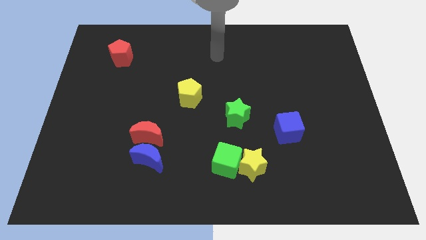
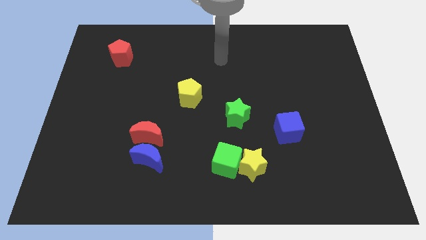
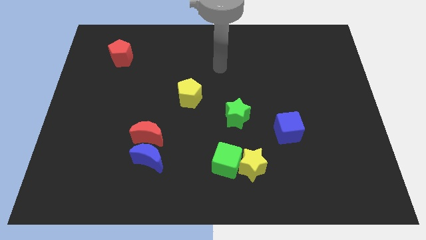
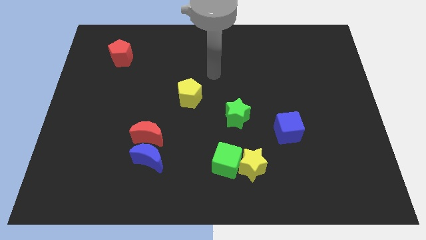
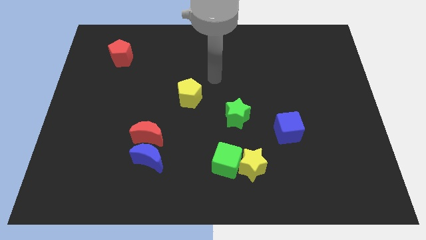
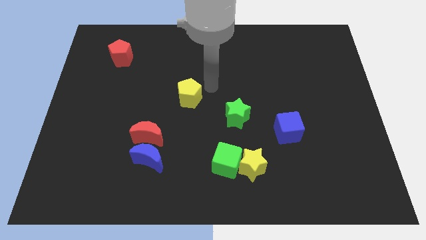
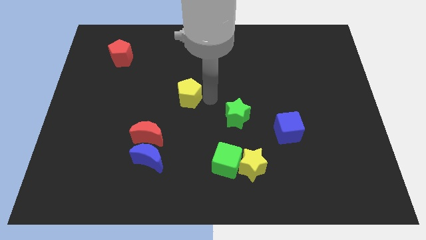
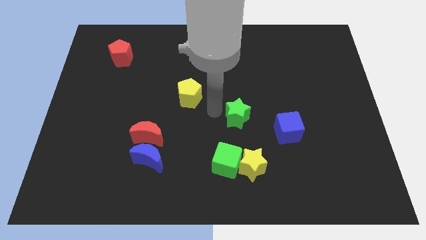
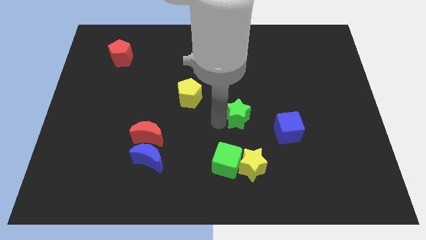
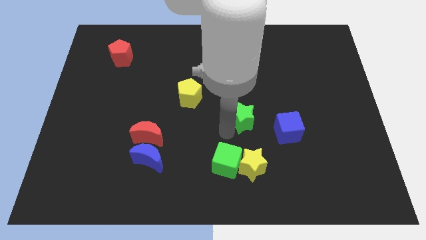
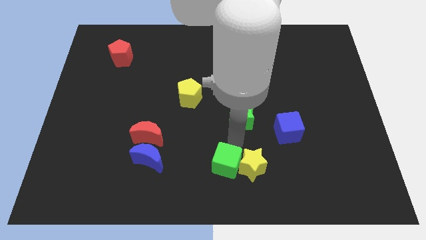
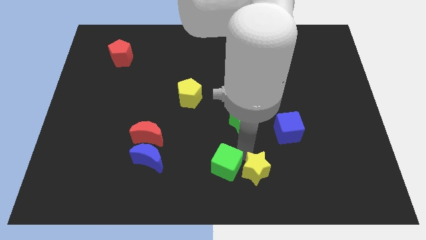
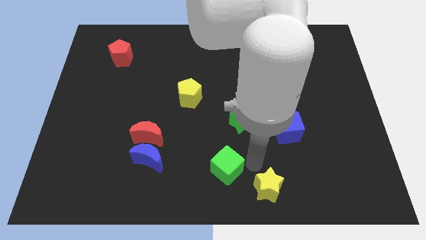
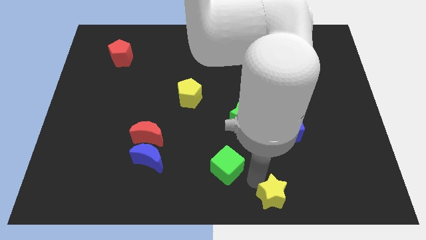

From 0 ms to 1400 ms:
move the green cube away from the yellow star

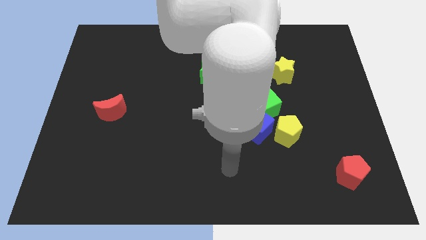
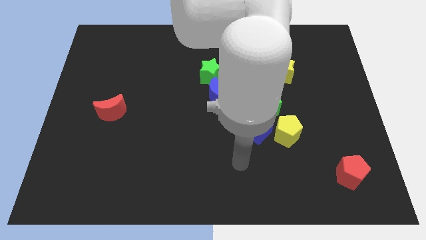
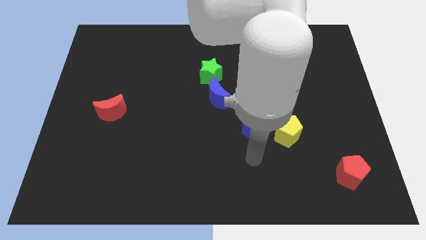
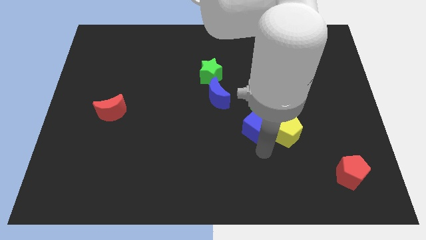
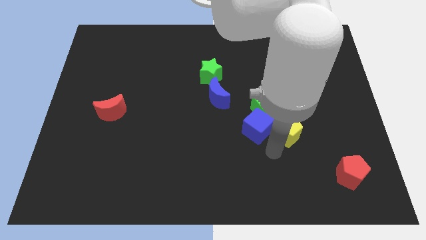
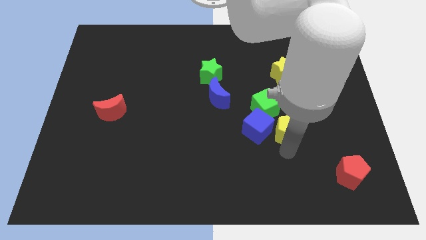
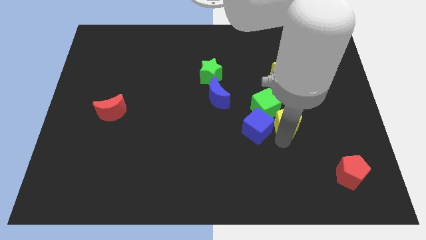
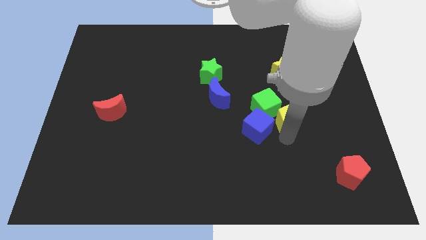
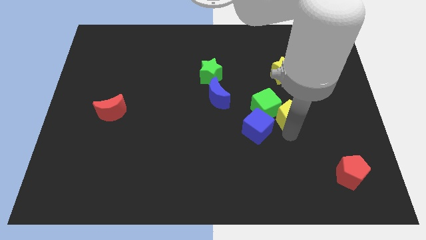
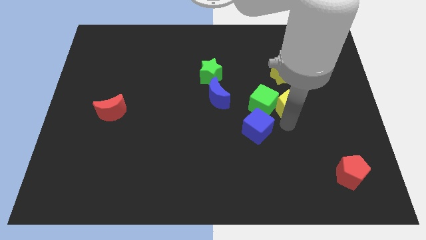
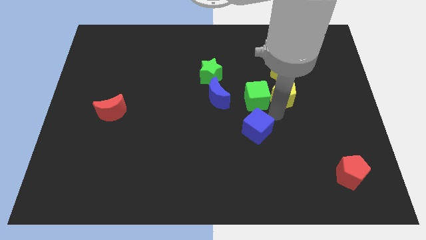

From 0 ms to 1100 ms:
pull the blue cube apart from the green cube and yellow pentagon

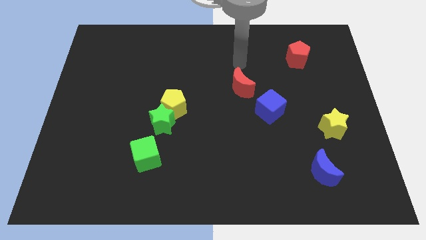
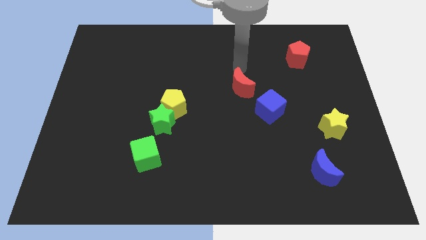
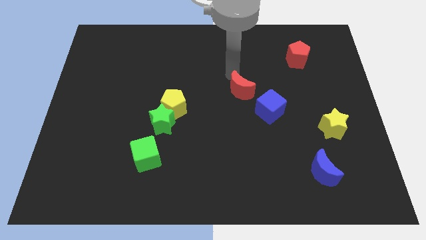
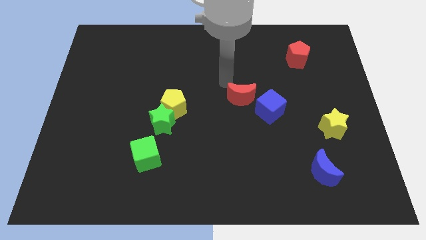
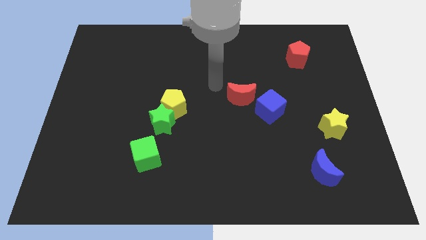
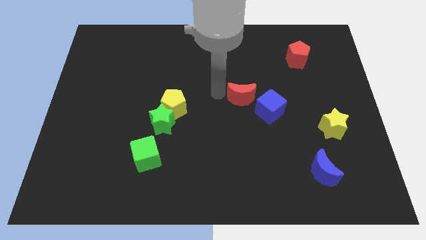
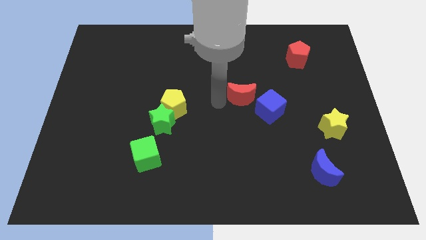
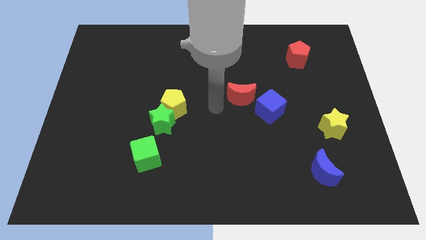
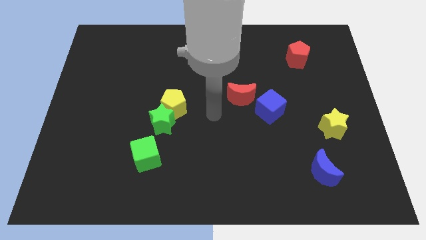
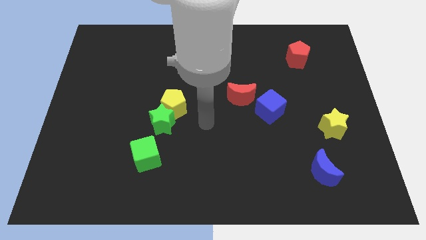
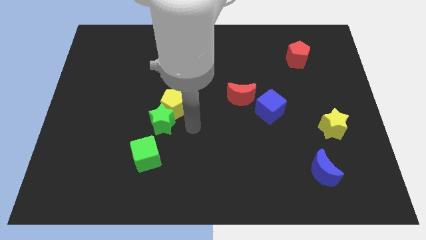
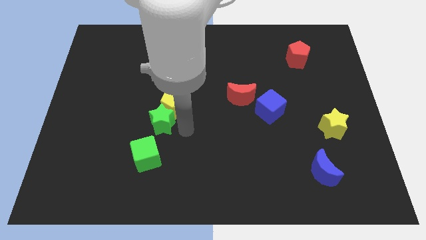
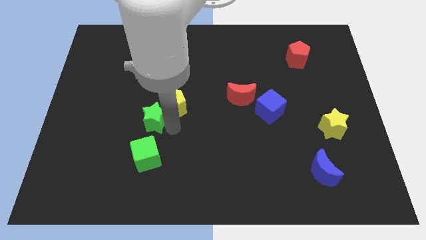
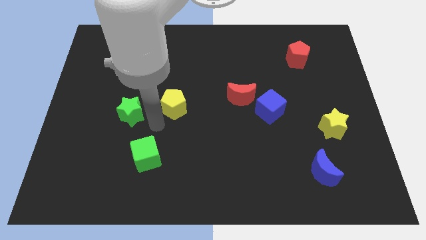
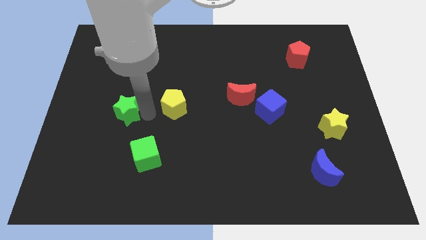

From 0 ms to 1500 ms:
pull the yellow pentagon apart from the green star

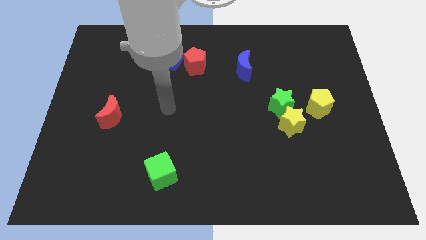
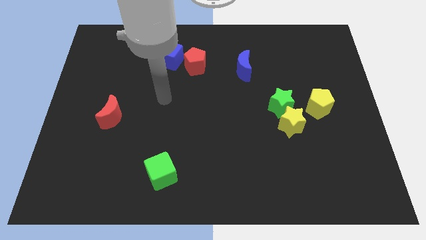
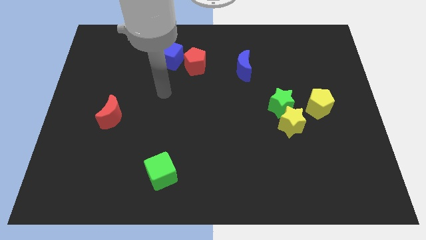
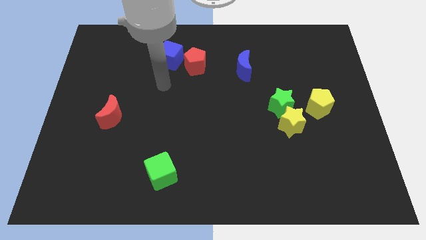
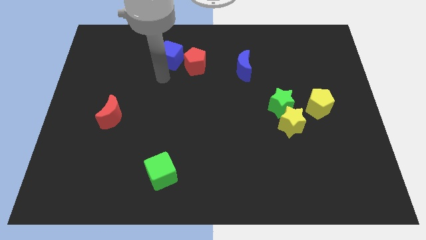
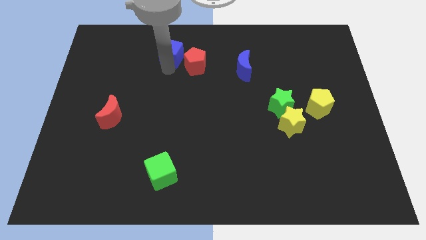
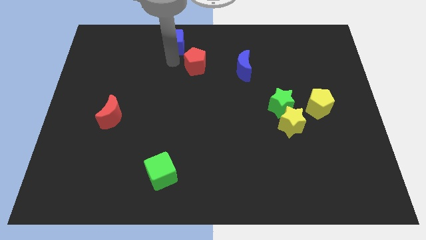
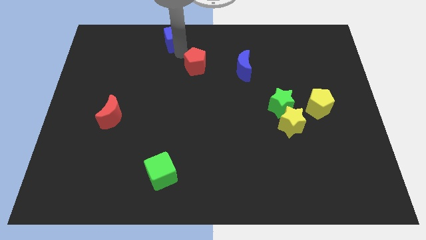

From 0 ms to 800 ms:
move the red pentagon away from the blue cube

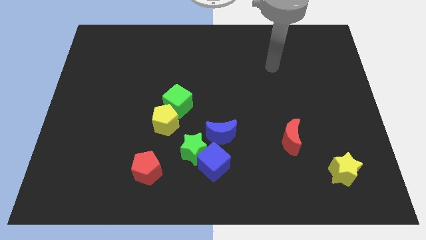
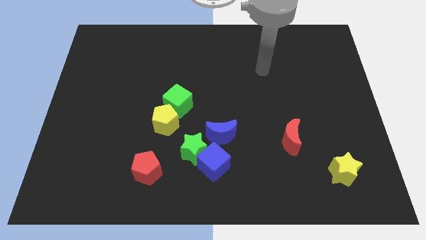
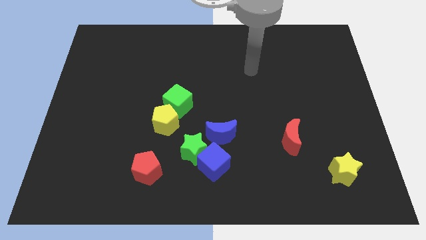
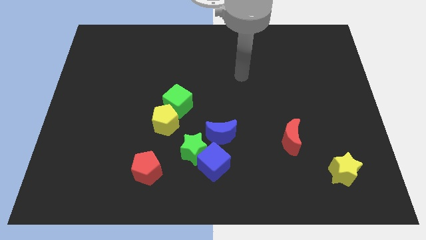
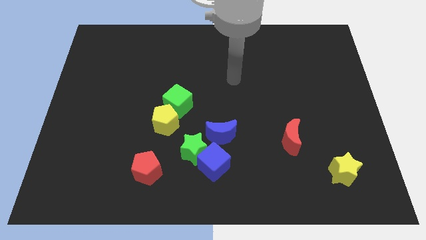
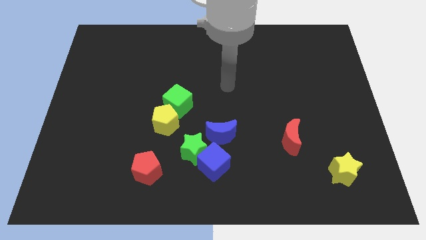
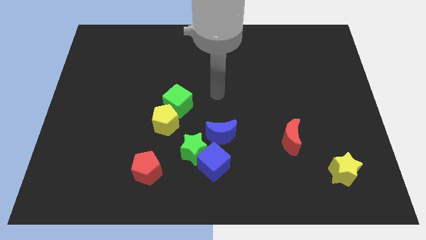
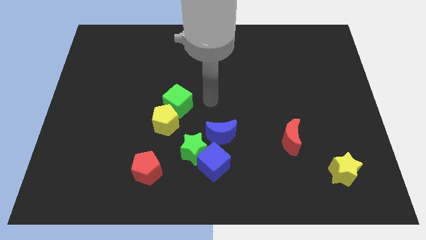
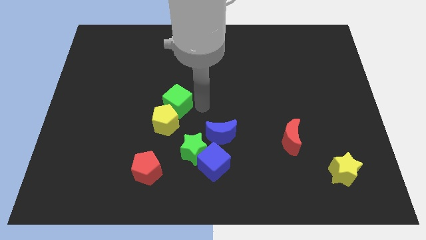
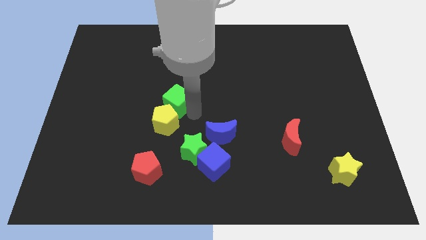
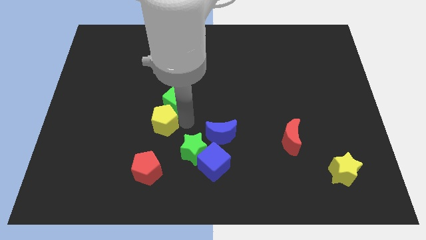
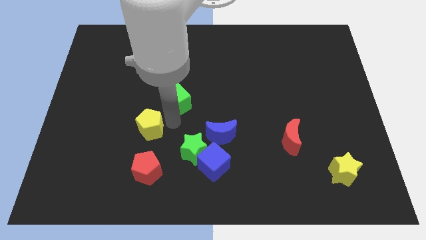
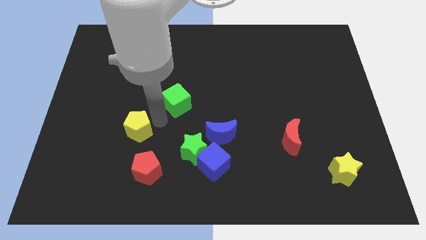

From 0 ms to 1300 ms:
separate the green cube from the yellow pentagon

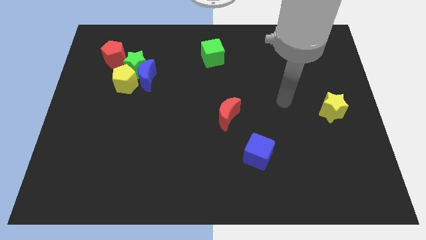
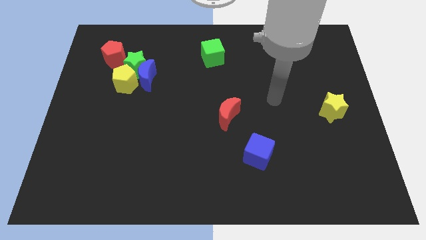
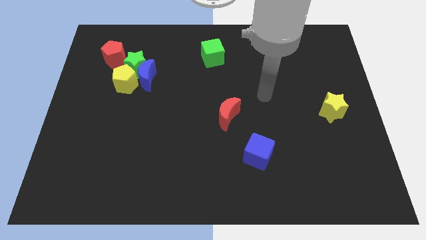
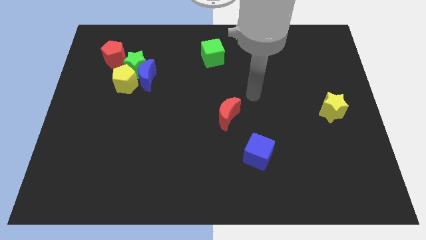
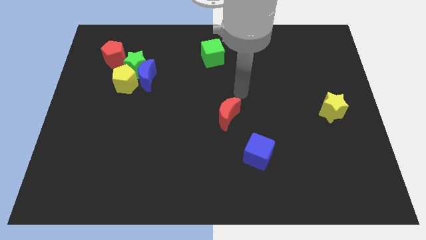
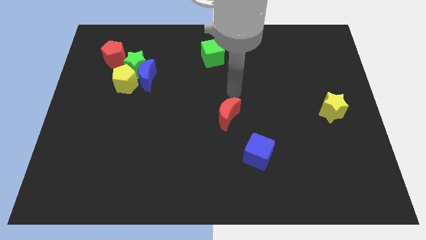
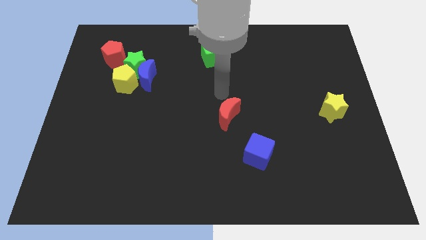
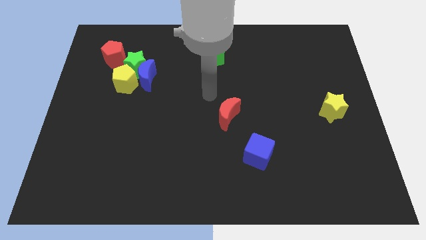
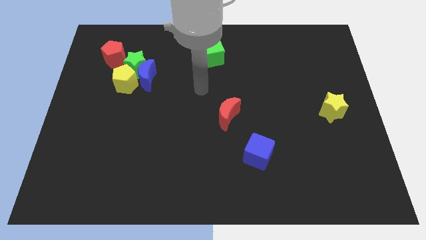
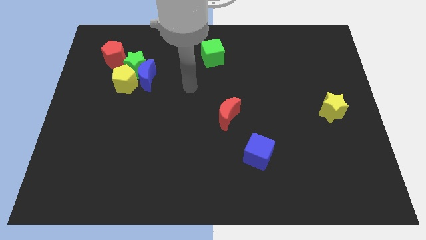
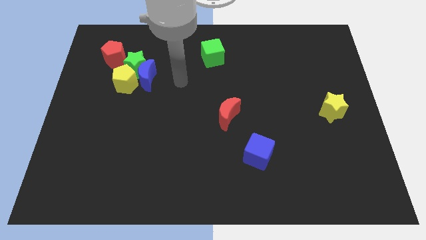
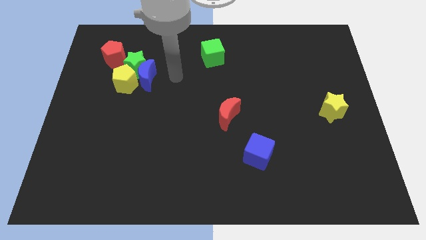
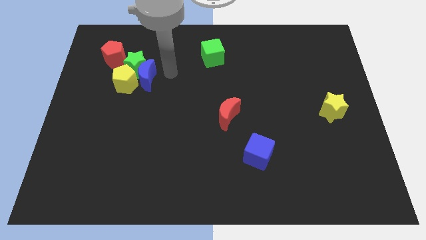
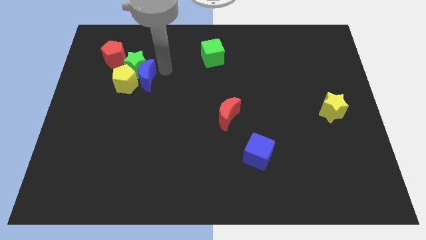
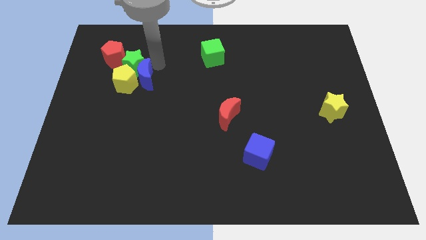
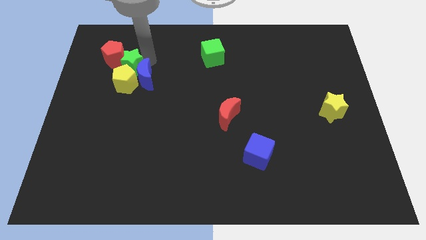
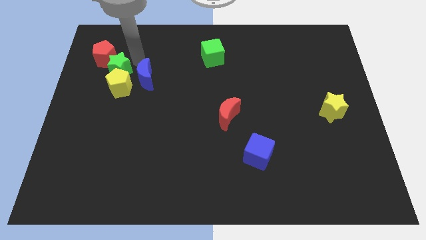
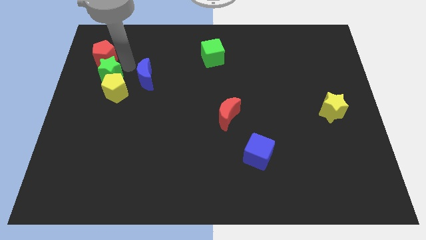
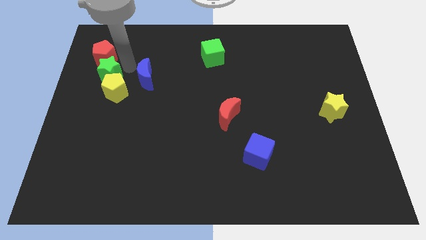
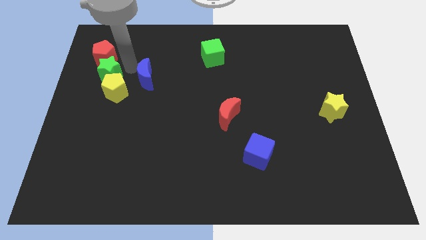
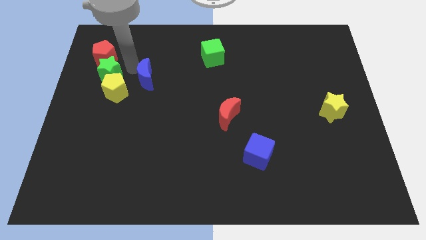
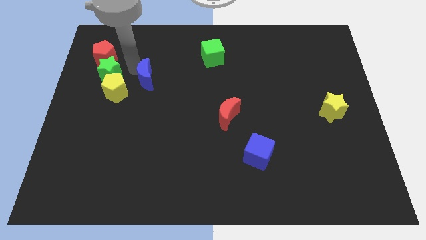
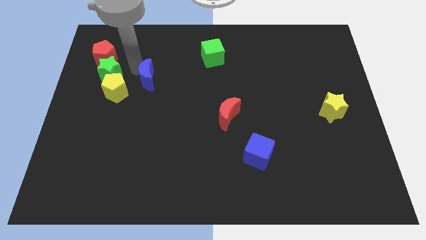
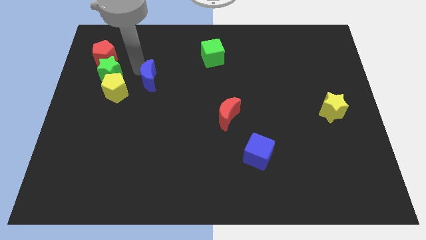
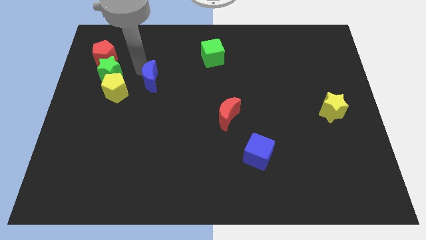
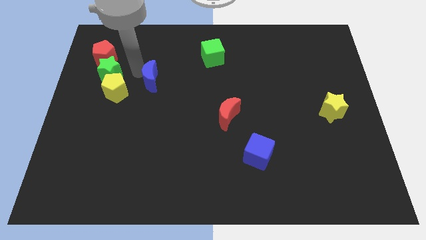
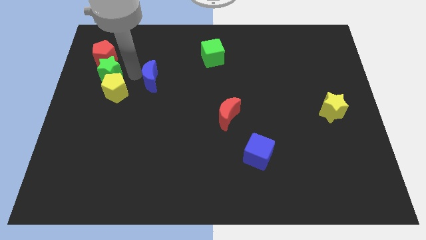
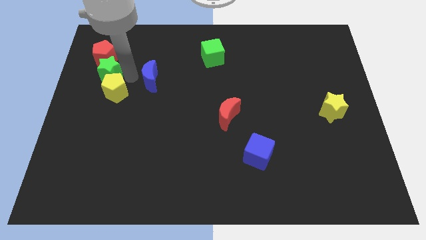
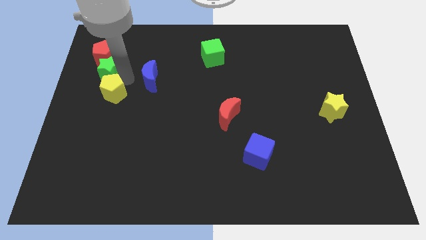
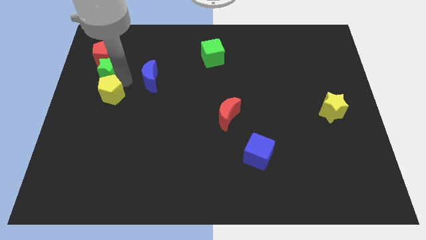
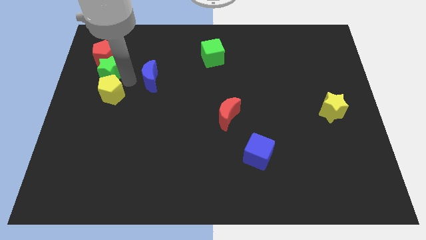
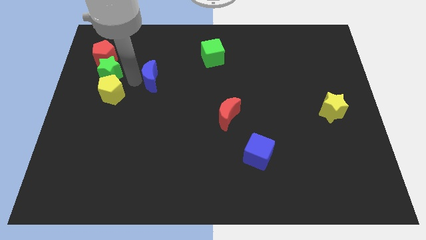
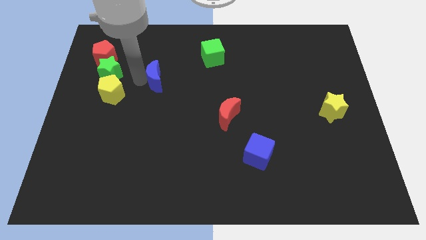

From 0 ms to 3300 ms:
separate the blue moon from the green star and yellow pentagon
